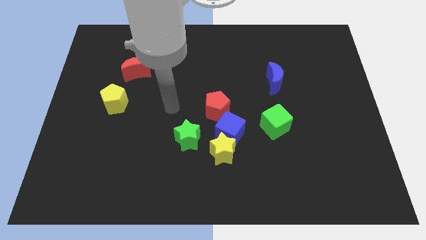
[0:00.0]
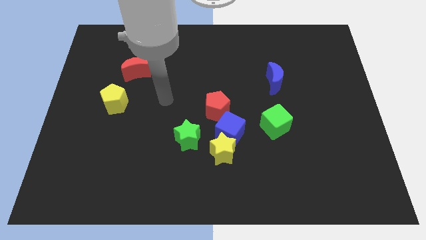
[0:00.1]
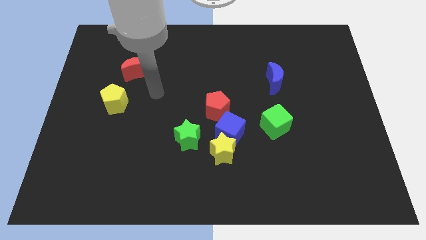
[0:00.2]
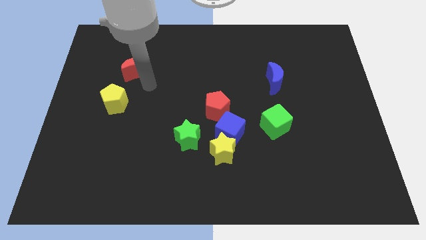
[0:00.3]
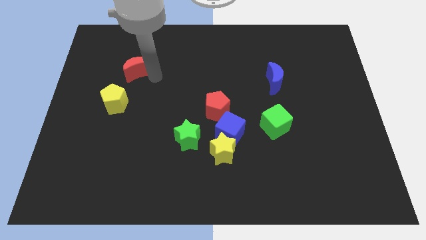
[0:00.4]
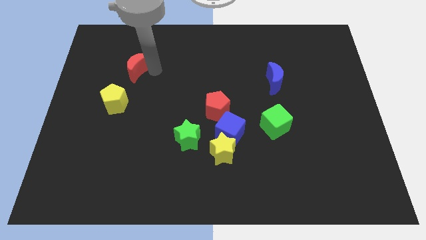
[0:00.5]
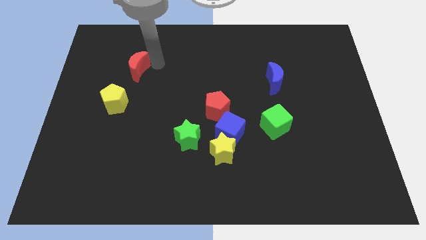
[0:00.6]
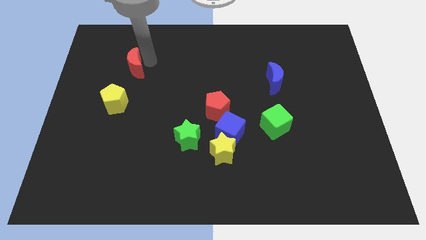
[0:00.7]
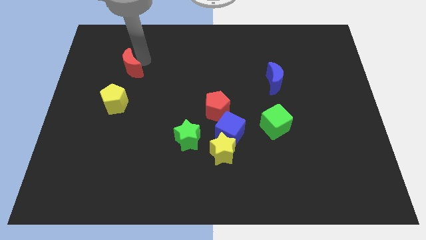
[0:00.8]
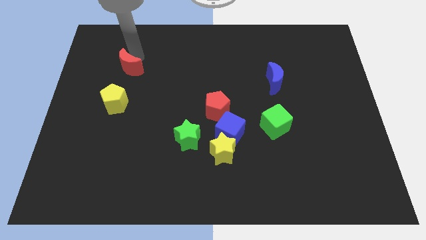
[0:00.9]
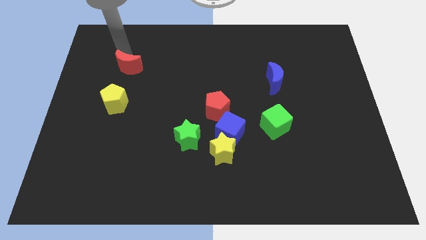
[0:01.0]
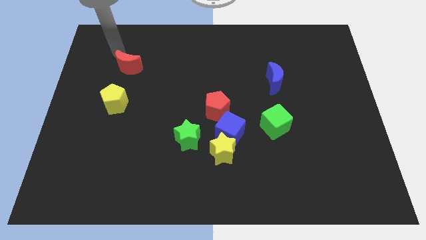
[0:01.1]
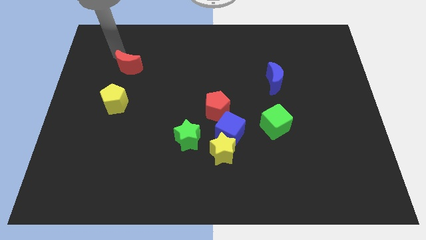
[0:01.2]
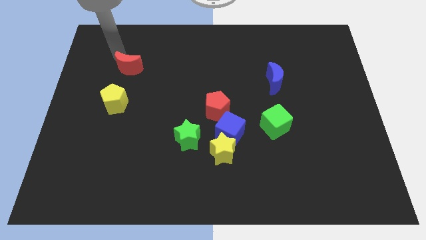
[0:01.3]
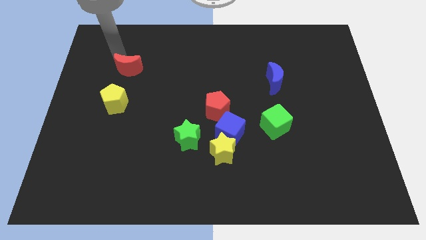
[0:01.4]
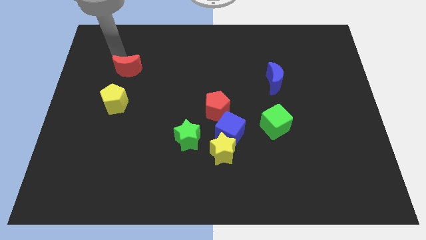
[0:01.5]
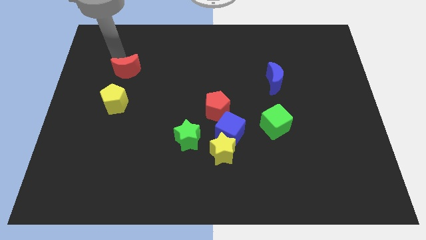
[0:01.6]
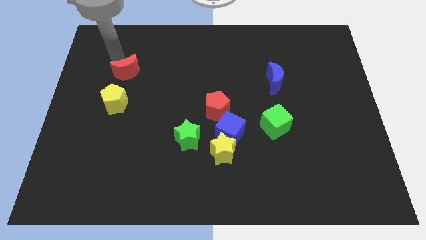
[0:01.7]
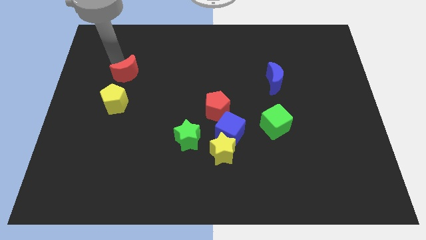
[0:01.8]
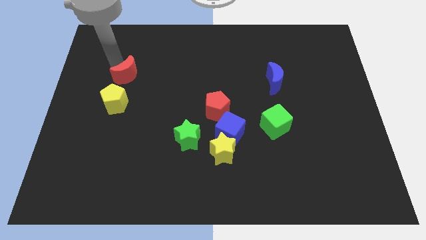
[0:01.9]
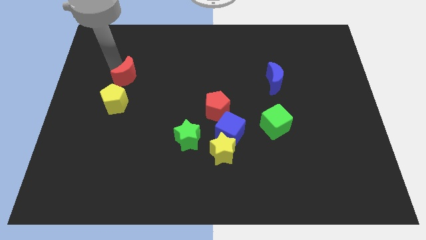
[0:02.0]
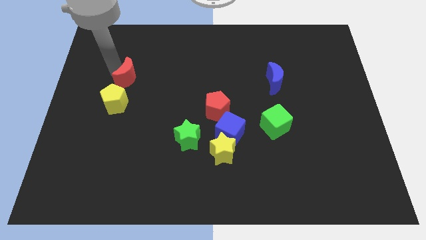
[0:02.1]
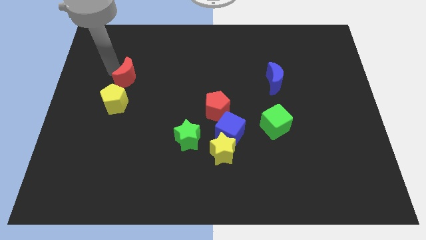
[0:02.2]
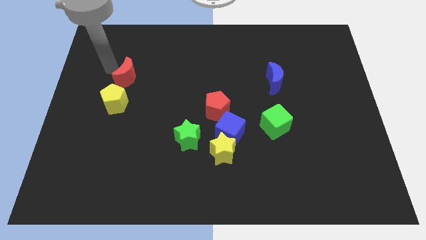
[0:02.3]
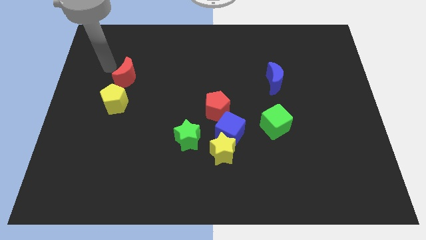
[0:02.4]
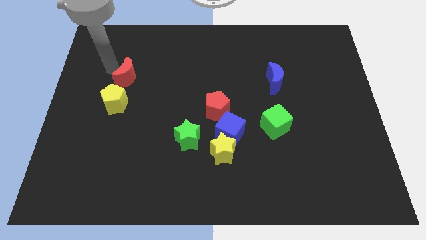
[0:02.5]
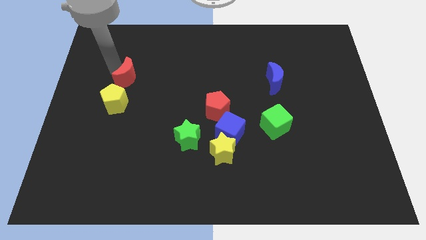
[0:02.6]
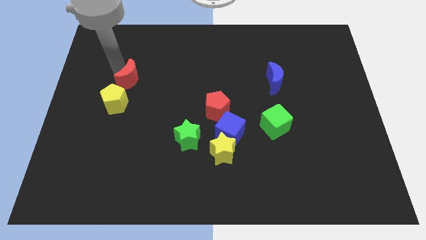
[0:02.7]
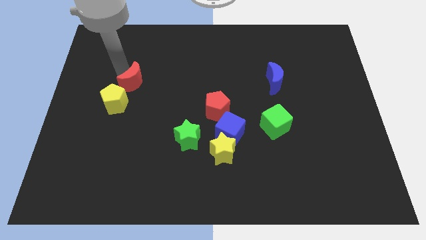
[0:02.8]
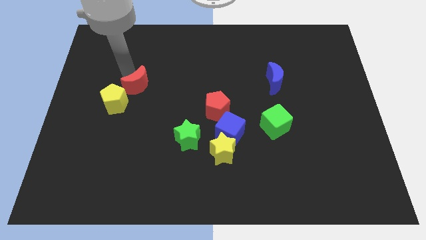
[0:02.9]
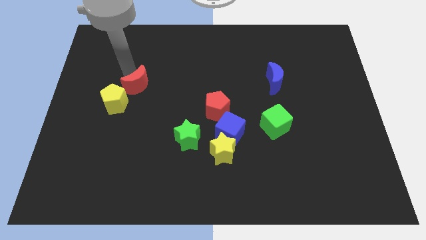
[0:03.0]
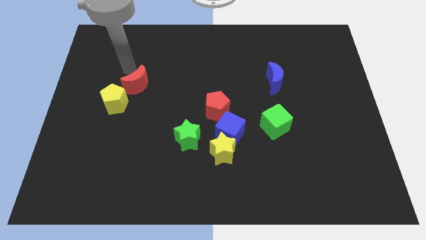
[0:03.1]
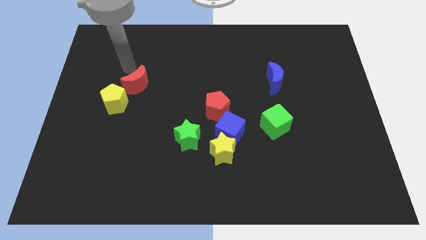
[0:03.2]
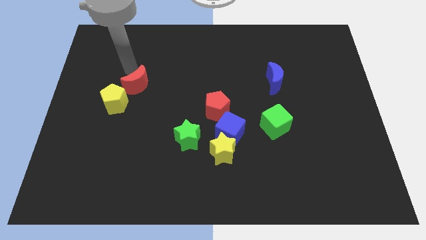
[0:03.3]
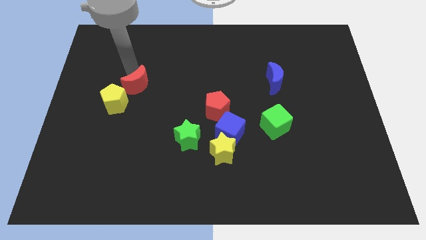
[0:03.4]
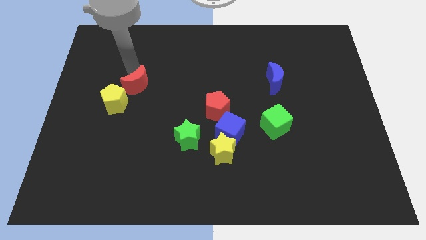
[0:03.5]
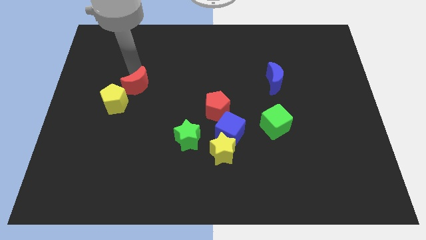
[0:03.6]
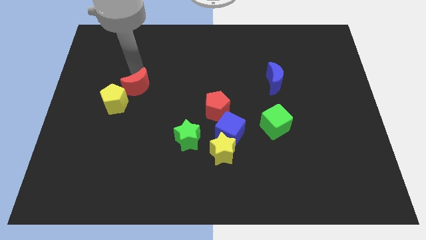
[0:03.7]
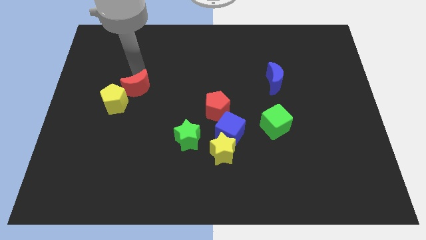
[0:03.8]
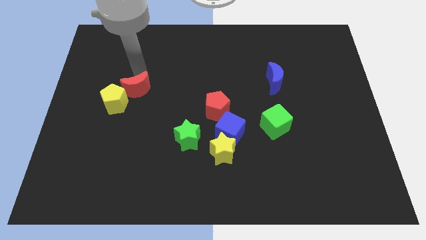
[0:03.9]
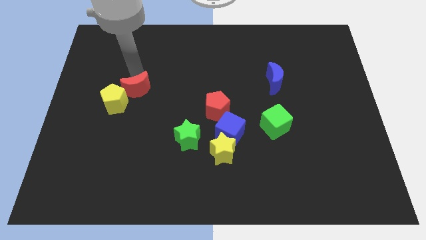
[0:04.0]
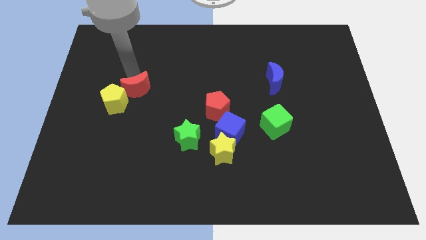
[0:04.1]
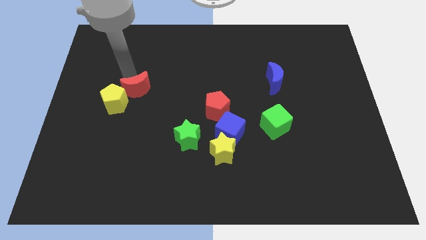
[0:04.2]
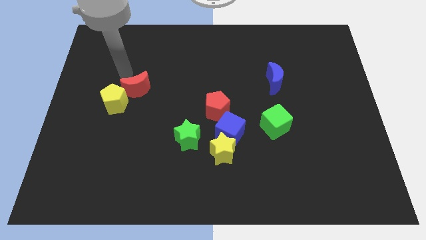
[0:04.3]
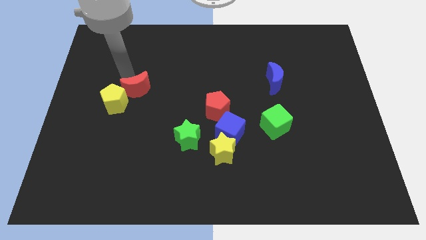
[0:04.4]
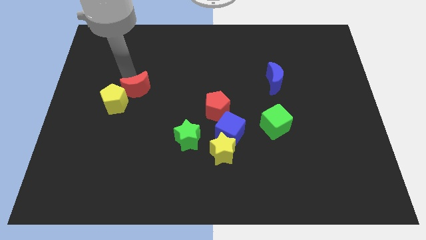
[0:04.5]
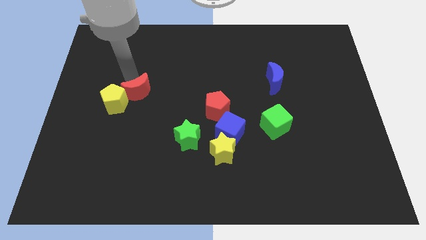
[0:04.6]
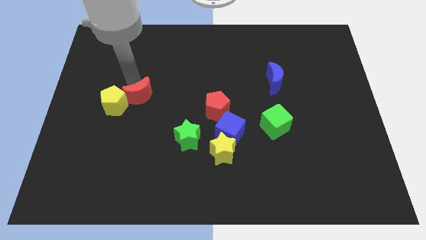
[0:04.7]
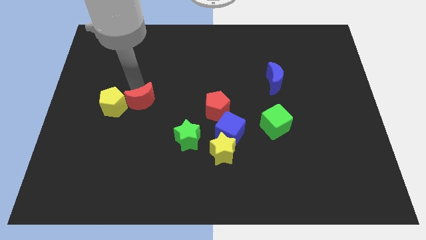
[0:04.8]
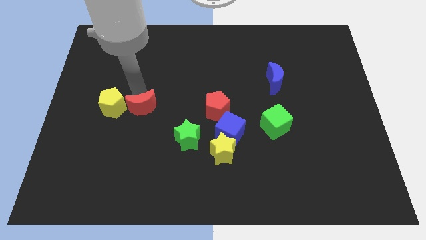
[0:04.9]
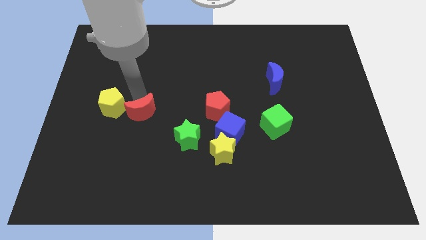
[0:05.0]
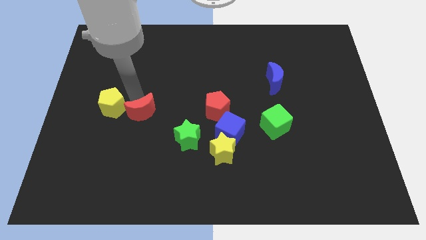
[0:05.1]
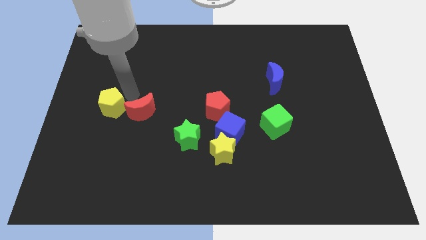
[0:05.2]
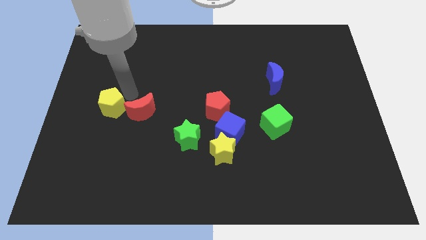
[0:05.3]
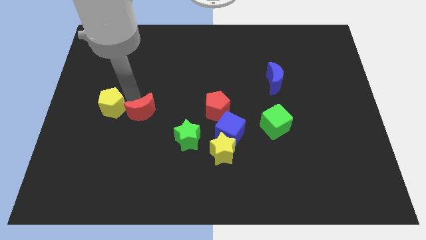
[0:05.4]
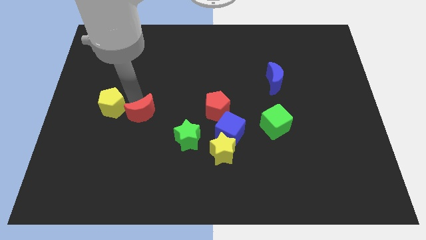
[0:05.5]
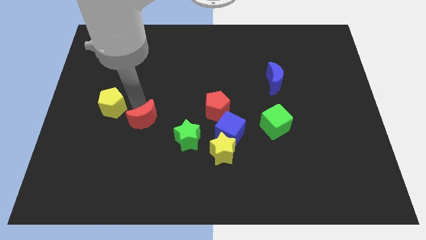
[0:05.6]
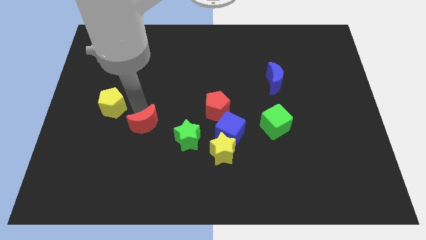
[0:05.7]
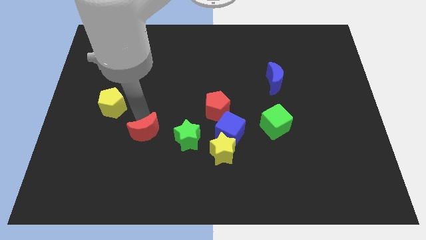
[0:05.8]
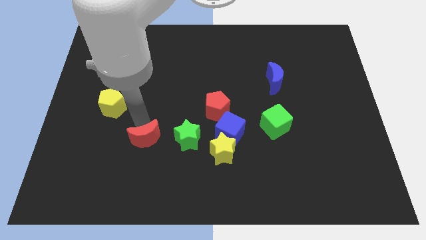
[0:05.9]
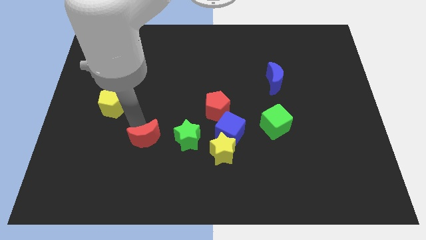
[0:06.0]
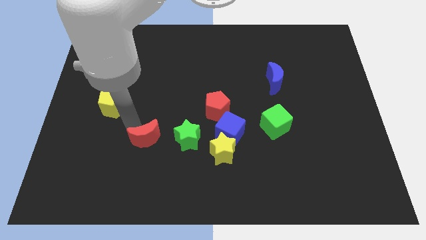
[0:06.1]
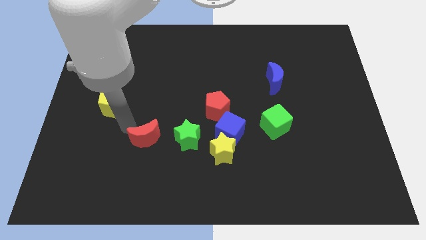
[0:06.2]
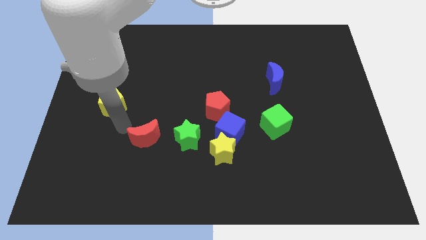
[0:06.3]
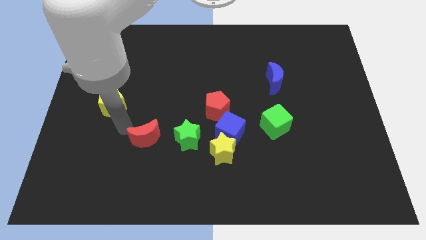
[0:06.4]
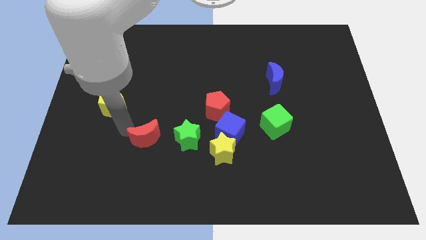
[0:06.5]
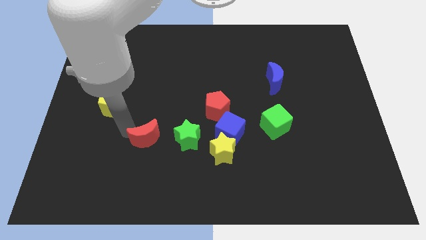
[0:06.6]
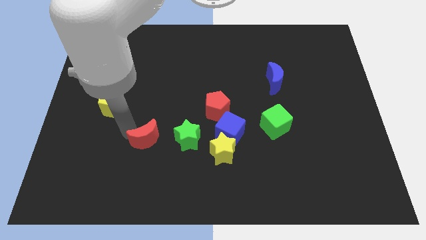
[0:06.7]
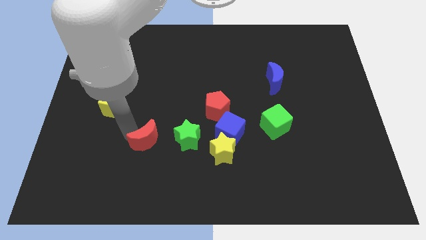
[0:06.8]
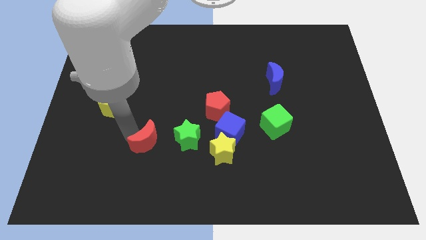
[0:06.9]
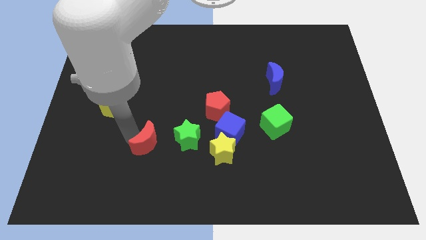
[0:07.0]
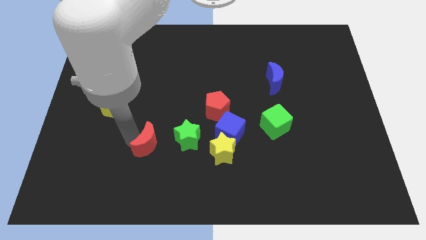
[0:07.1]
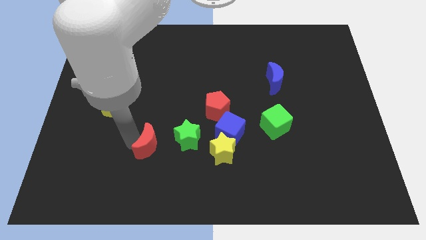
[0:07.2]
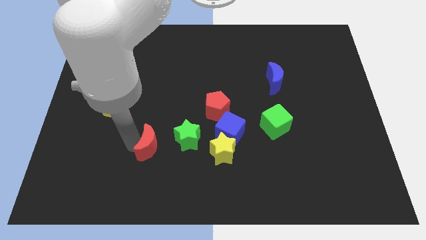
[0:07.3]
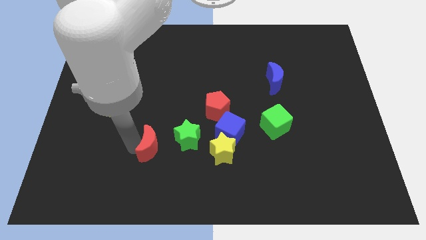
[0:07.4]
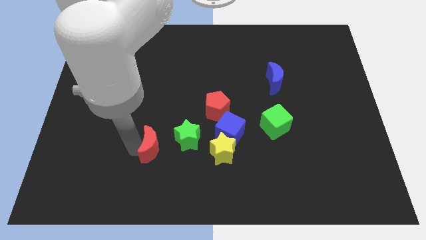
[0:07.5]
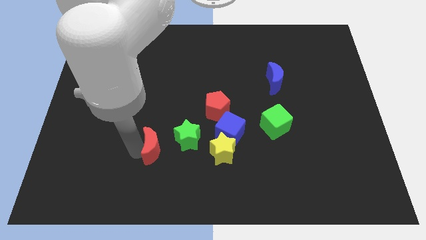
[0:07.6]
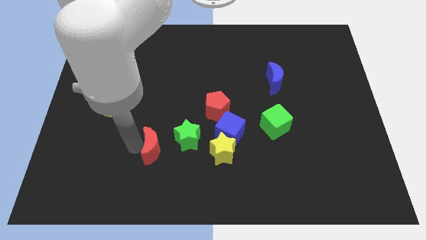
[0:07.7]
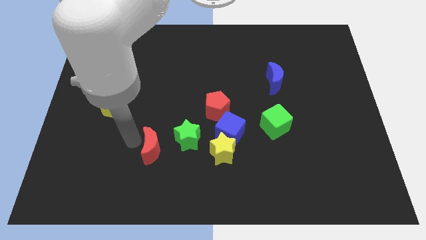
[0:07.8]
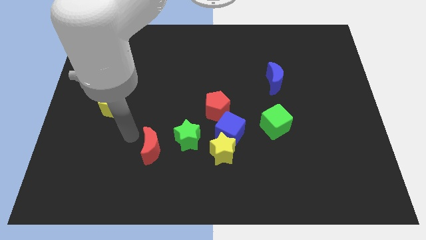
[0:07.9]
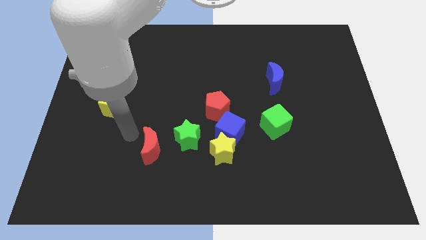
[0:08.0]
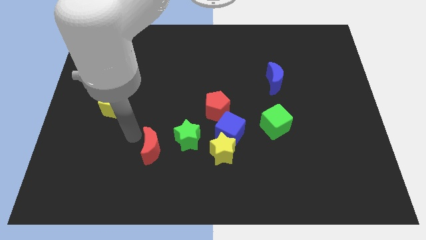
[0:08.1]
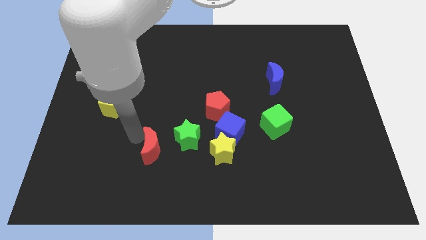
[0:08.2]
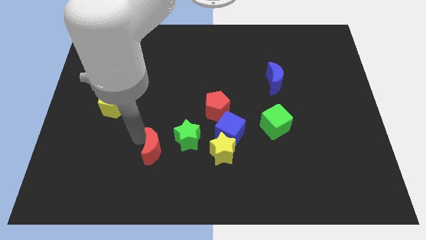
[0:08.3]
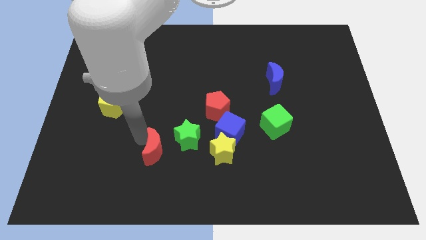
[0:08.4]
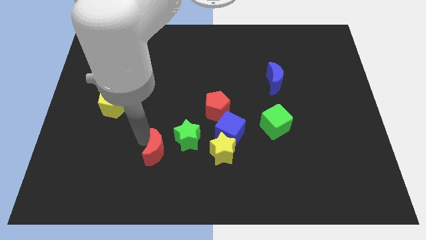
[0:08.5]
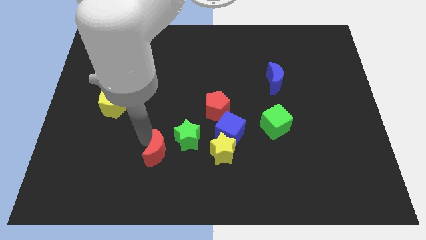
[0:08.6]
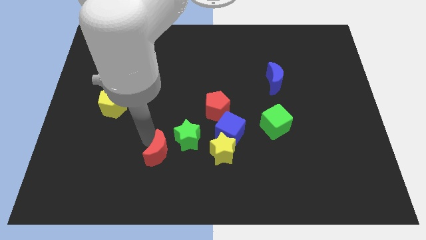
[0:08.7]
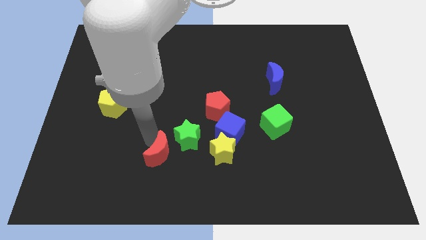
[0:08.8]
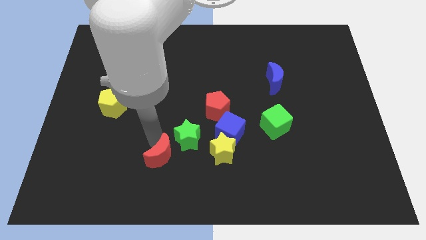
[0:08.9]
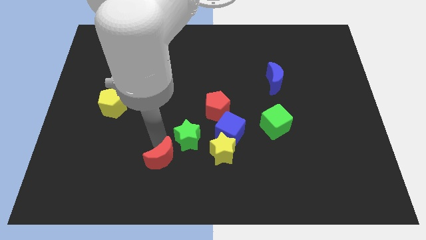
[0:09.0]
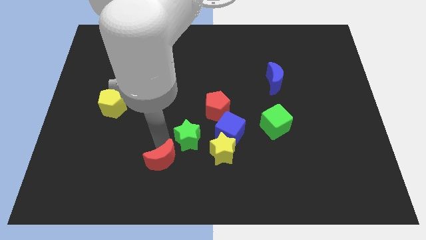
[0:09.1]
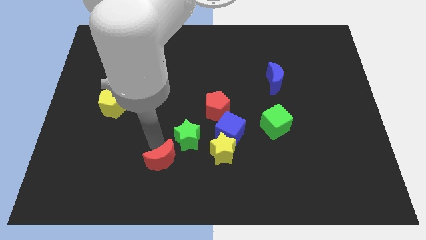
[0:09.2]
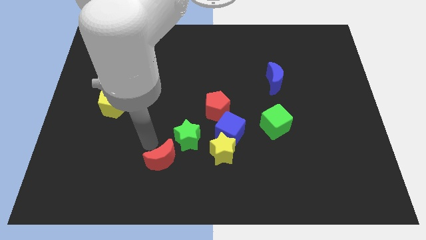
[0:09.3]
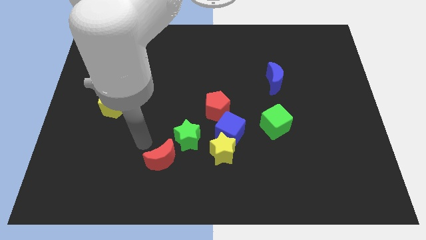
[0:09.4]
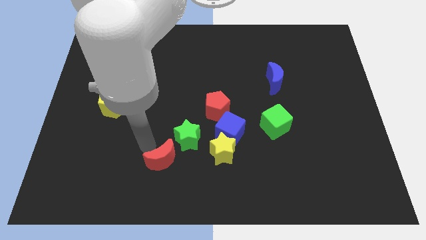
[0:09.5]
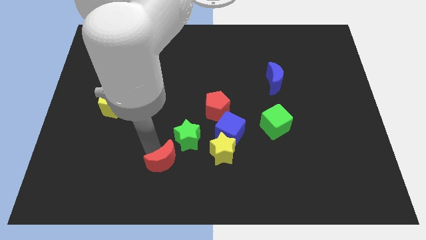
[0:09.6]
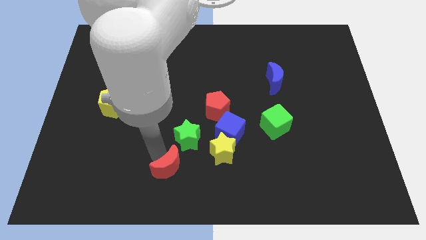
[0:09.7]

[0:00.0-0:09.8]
put the red moon to the bottom side
